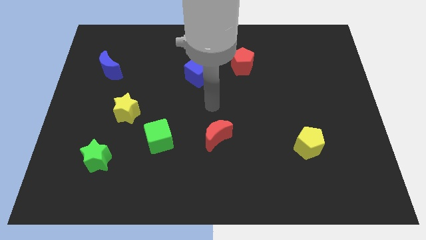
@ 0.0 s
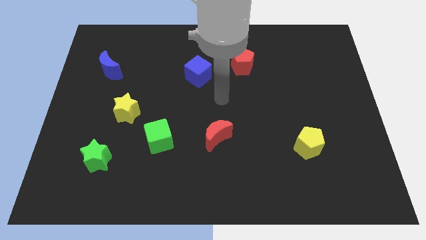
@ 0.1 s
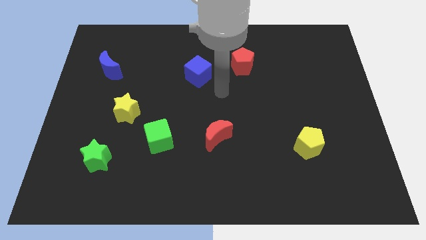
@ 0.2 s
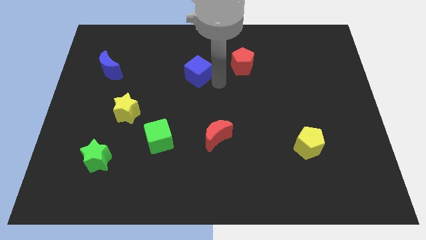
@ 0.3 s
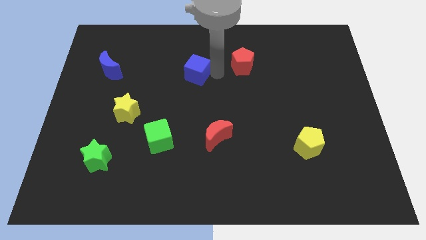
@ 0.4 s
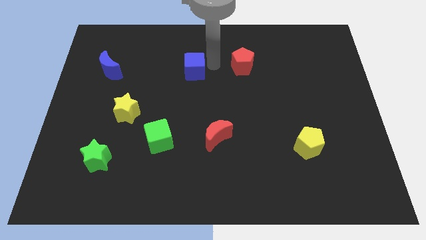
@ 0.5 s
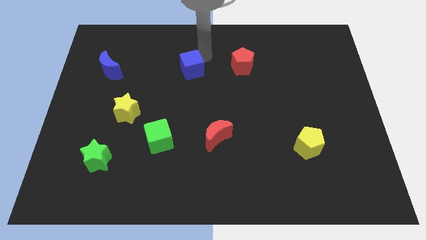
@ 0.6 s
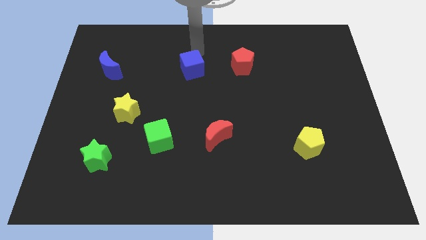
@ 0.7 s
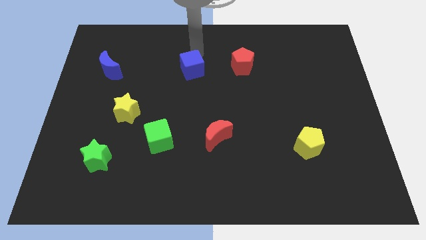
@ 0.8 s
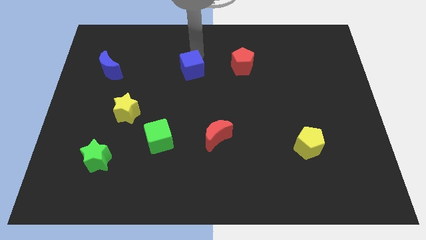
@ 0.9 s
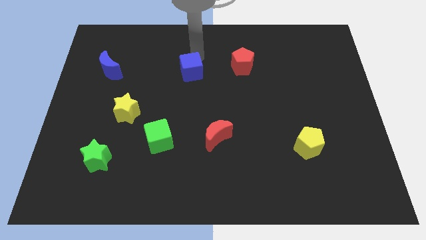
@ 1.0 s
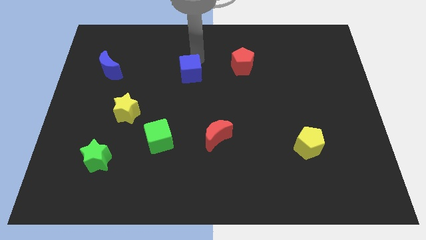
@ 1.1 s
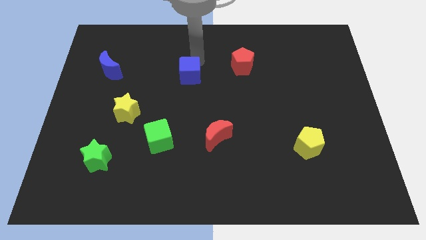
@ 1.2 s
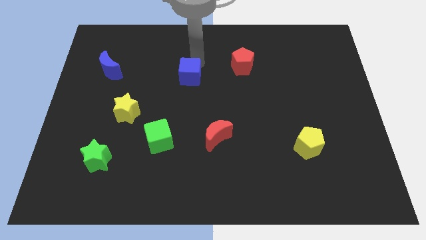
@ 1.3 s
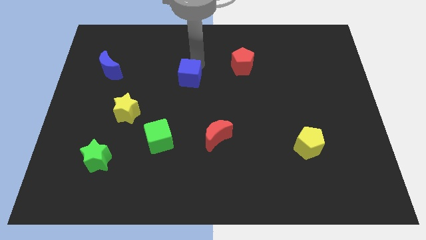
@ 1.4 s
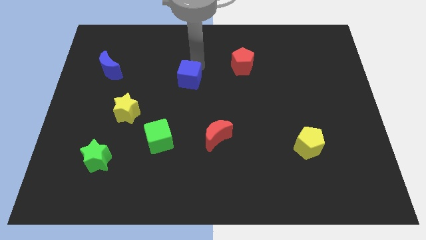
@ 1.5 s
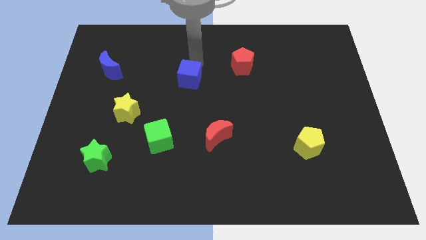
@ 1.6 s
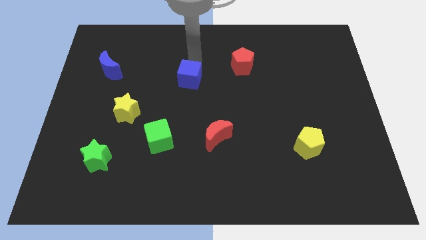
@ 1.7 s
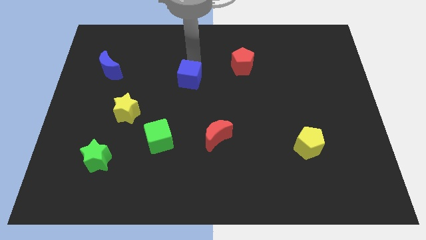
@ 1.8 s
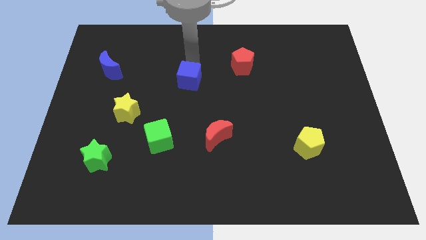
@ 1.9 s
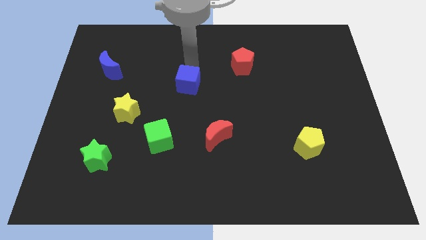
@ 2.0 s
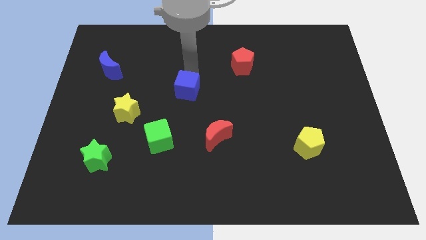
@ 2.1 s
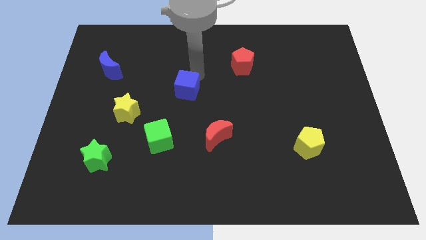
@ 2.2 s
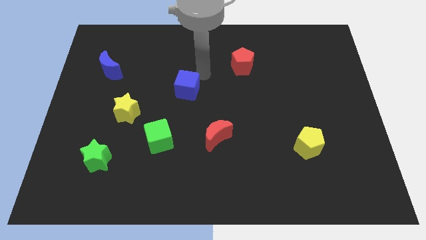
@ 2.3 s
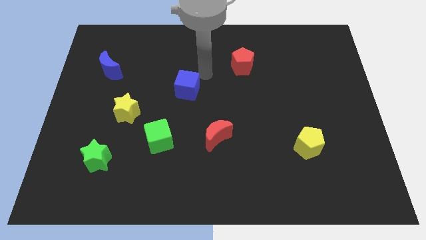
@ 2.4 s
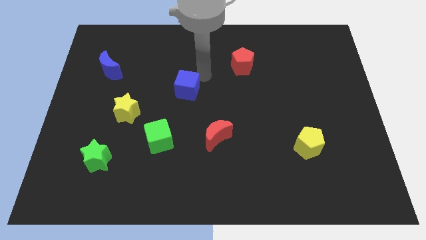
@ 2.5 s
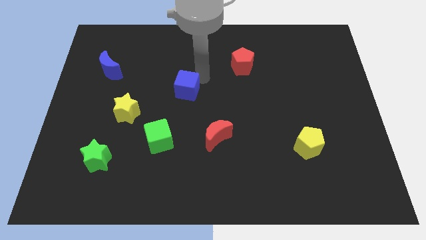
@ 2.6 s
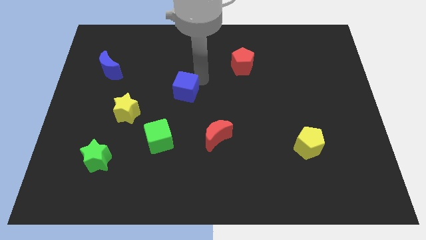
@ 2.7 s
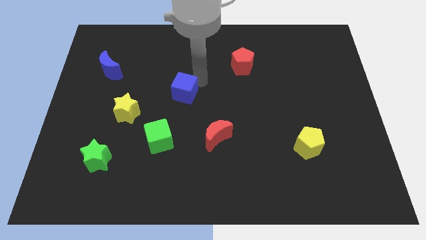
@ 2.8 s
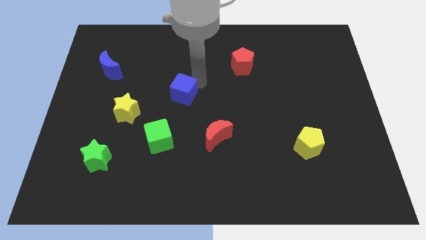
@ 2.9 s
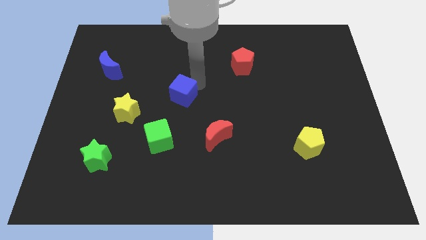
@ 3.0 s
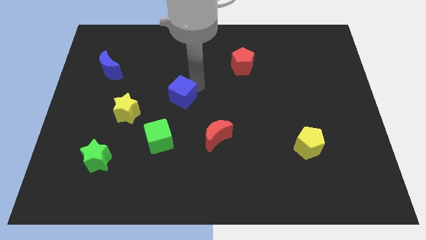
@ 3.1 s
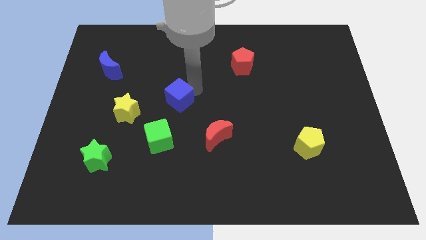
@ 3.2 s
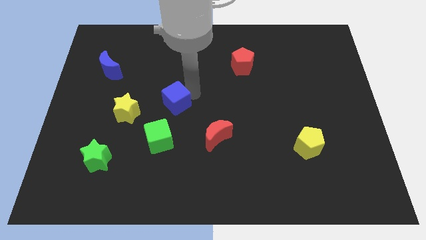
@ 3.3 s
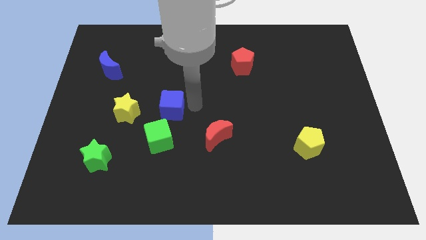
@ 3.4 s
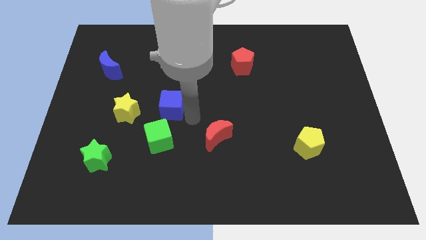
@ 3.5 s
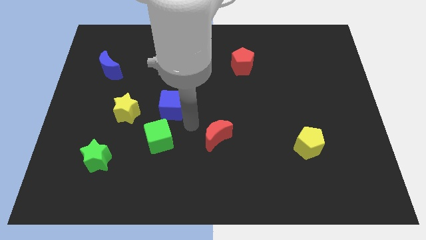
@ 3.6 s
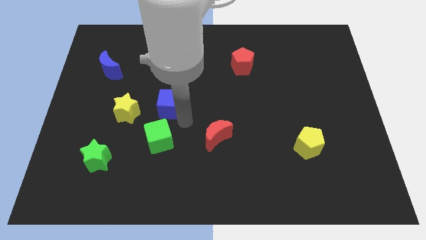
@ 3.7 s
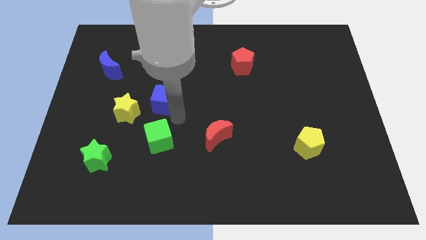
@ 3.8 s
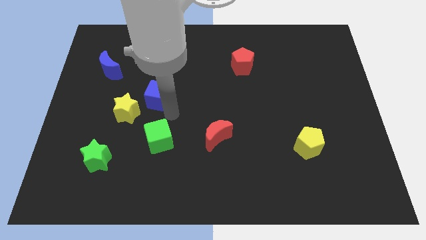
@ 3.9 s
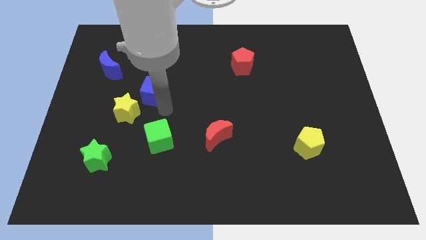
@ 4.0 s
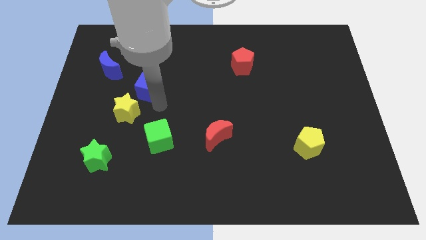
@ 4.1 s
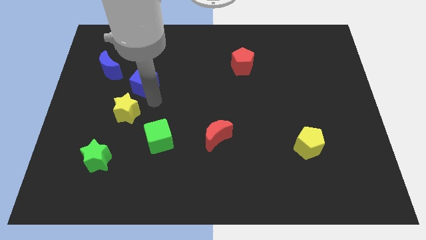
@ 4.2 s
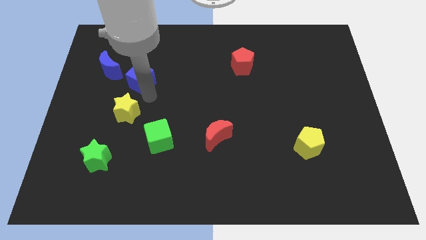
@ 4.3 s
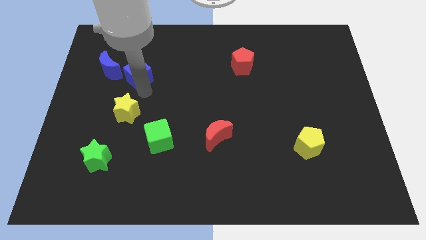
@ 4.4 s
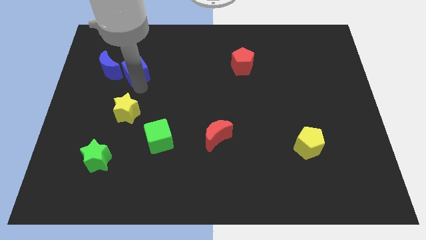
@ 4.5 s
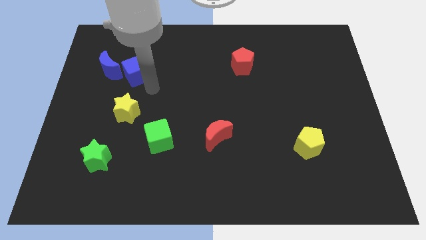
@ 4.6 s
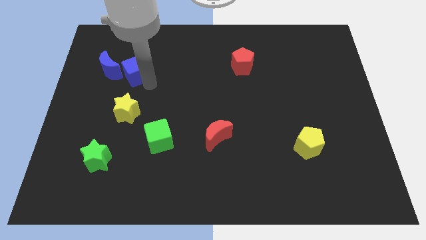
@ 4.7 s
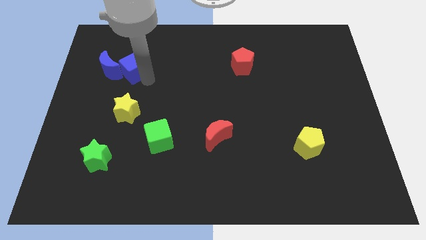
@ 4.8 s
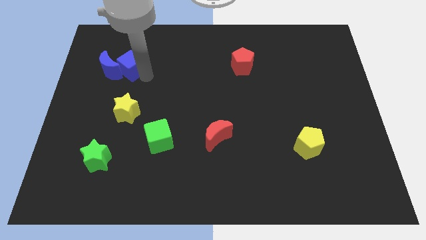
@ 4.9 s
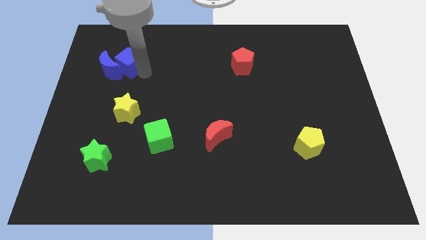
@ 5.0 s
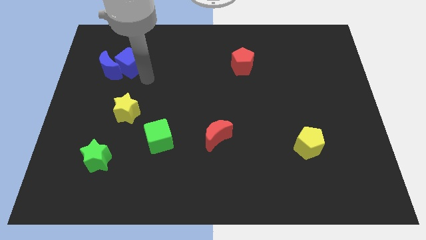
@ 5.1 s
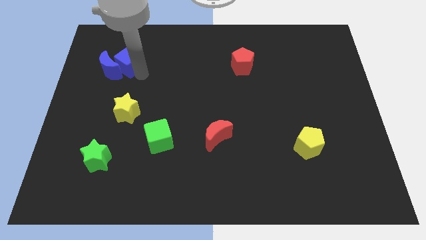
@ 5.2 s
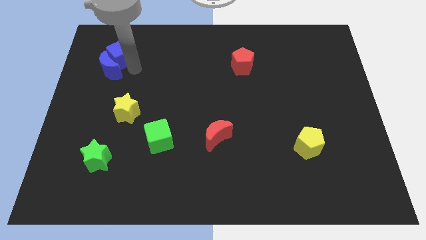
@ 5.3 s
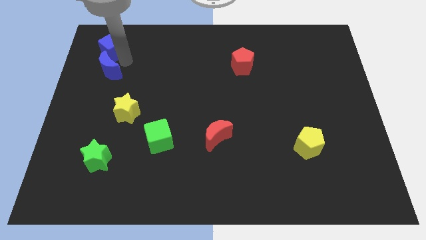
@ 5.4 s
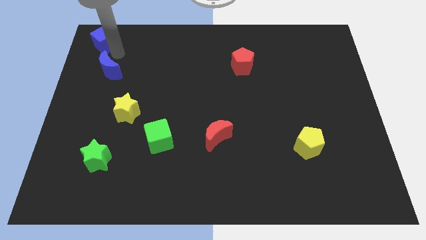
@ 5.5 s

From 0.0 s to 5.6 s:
slide the blue cube to the top left corner

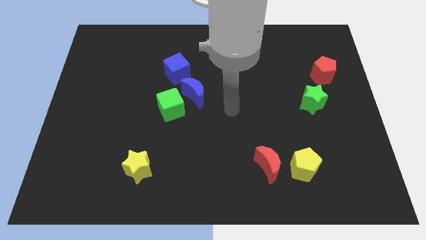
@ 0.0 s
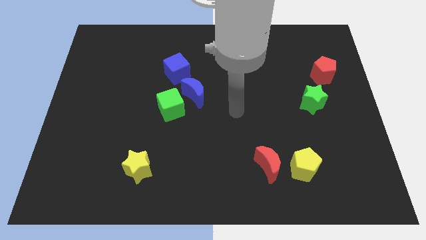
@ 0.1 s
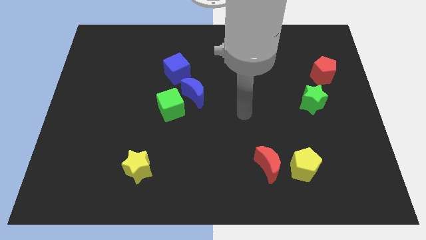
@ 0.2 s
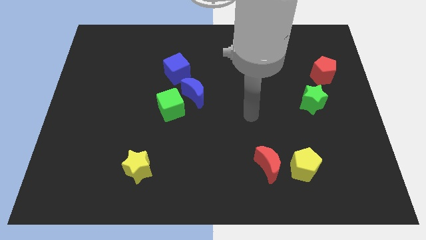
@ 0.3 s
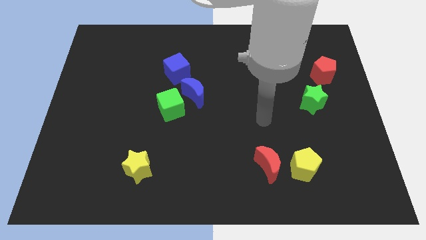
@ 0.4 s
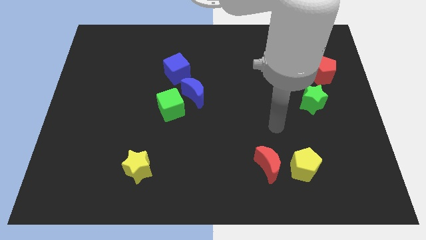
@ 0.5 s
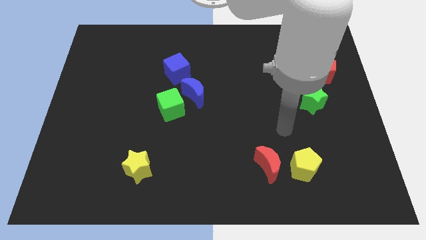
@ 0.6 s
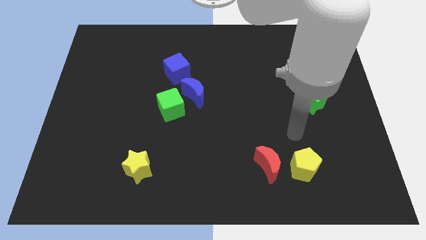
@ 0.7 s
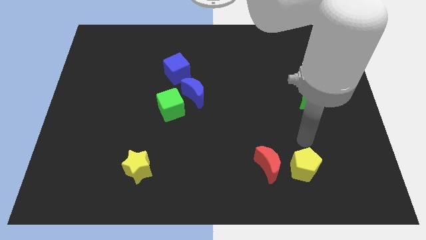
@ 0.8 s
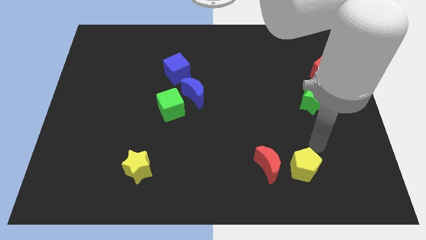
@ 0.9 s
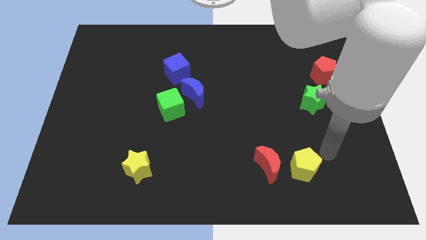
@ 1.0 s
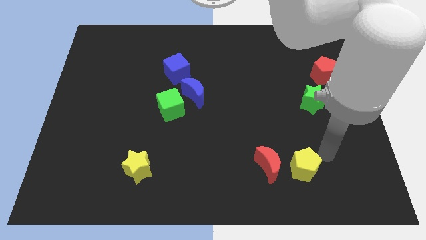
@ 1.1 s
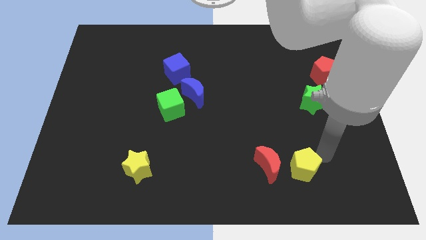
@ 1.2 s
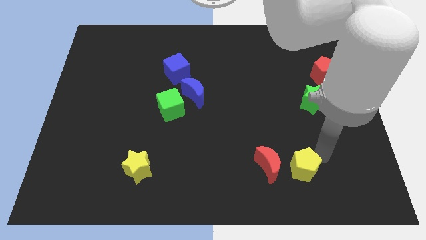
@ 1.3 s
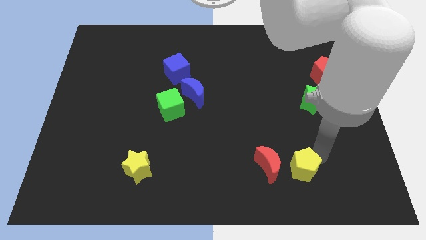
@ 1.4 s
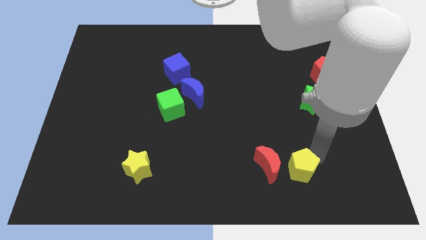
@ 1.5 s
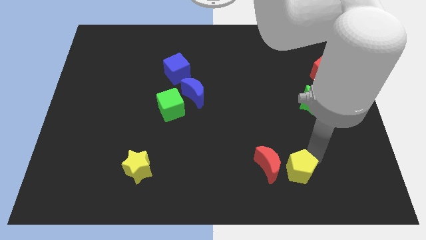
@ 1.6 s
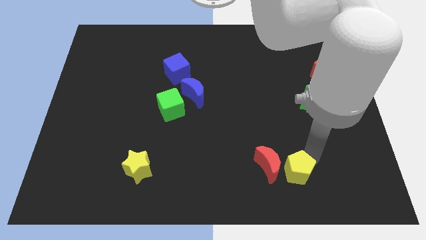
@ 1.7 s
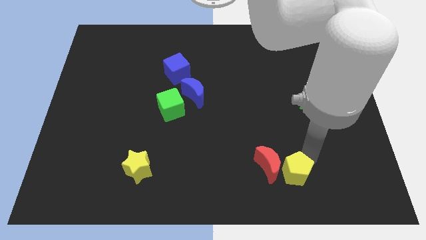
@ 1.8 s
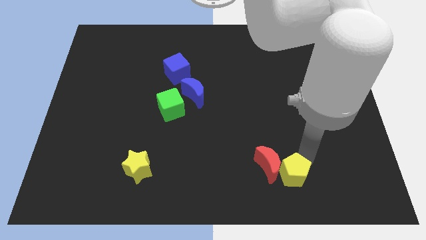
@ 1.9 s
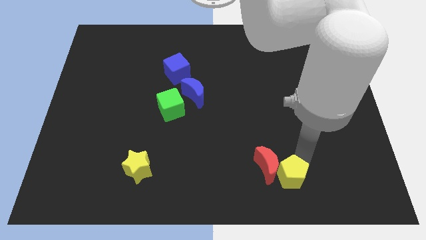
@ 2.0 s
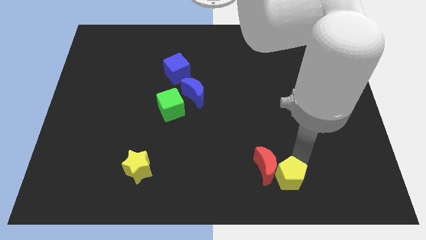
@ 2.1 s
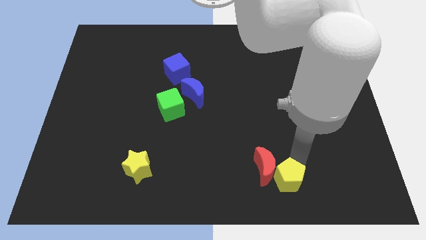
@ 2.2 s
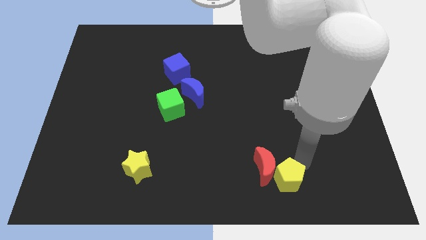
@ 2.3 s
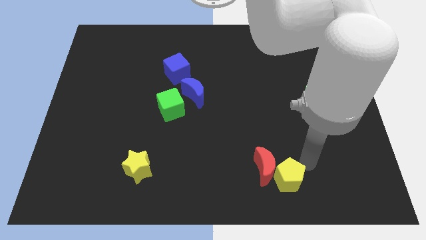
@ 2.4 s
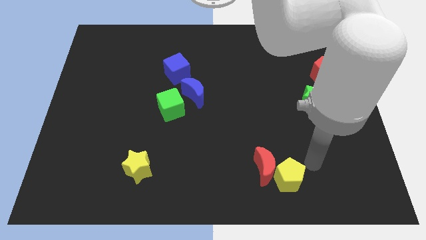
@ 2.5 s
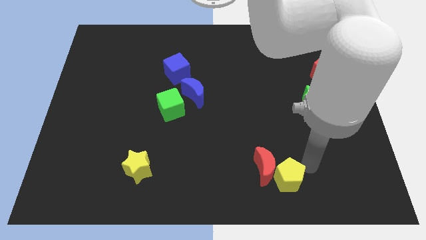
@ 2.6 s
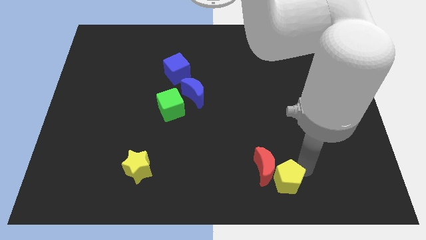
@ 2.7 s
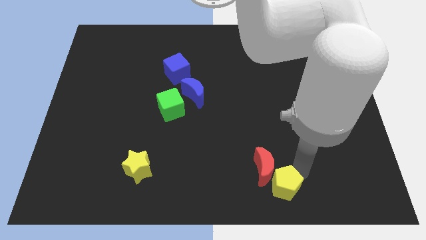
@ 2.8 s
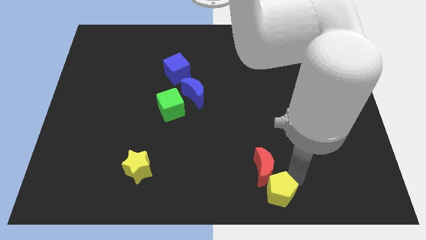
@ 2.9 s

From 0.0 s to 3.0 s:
push the yellow pentagon to the bottom side
